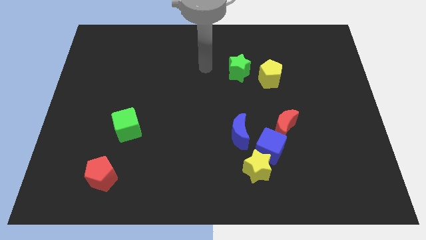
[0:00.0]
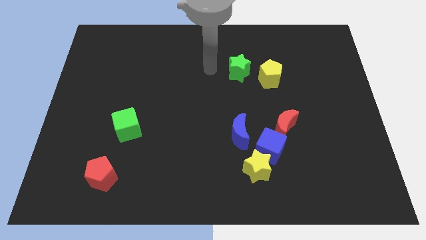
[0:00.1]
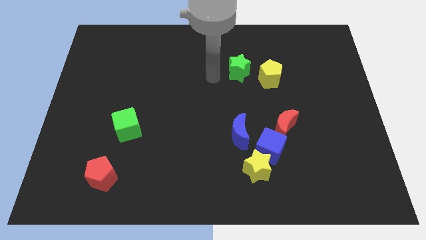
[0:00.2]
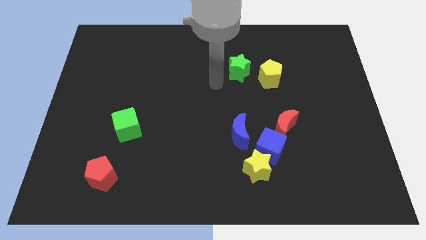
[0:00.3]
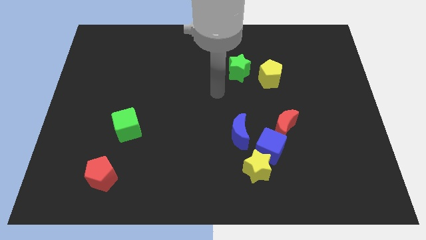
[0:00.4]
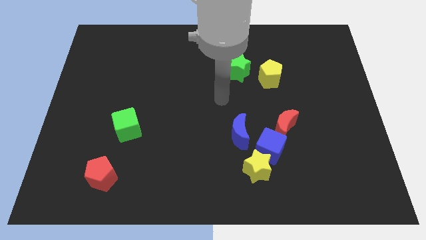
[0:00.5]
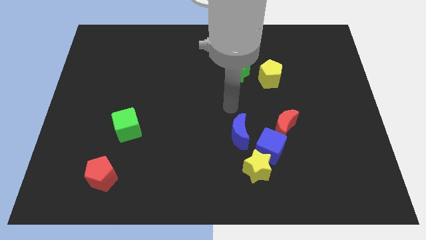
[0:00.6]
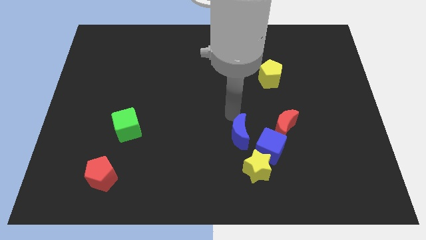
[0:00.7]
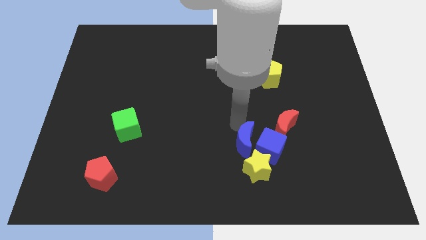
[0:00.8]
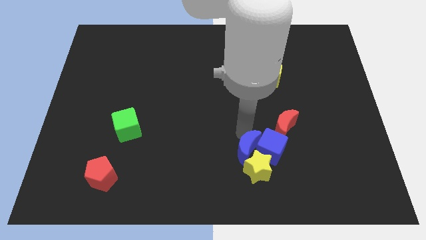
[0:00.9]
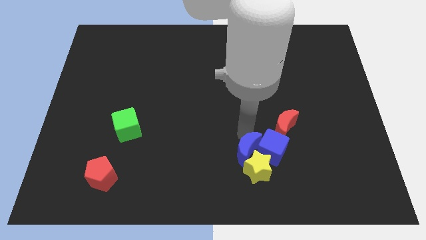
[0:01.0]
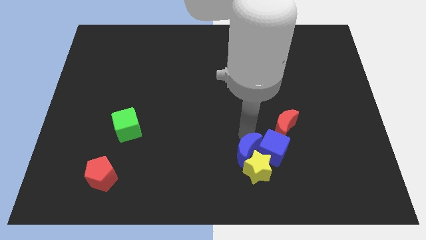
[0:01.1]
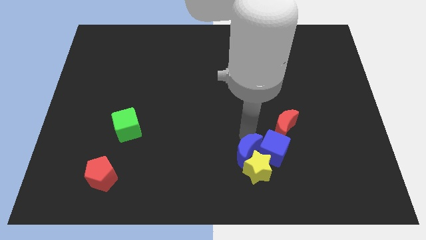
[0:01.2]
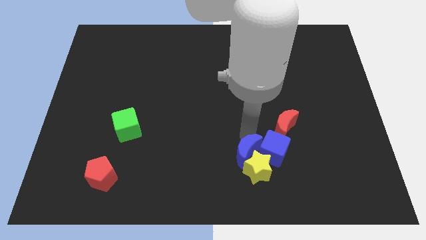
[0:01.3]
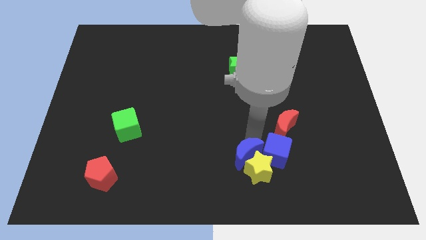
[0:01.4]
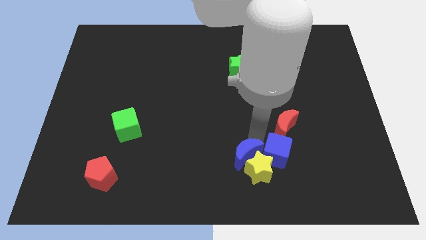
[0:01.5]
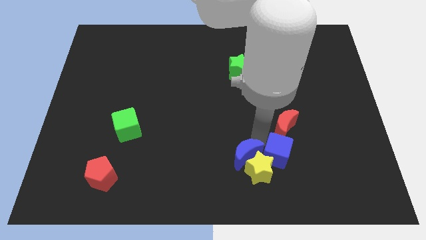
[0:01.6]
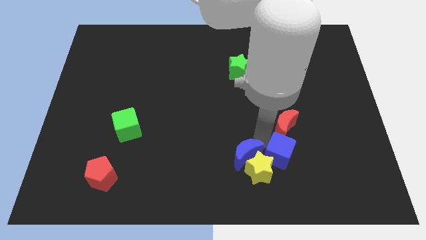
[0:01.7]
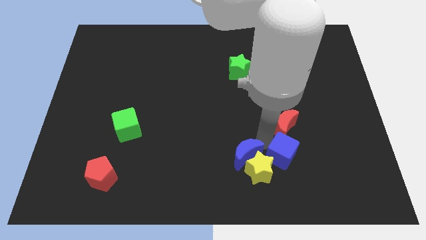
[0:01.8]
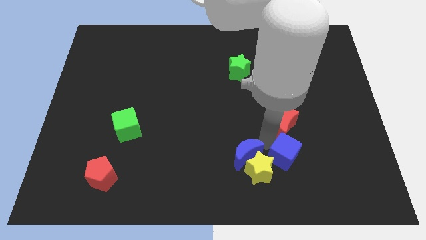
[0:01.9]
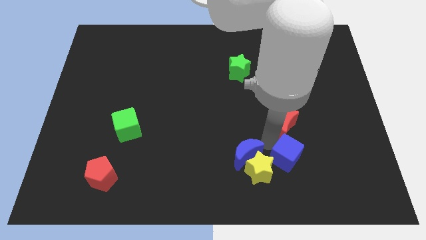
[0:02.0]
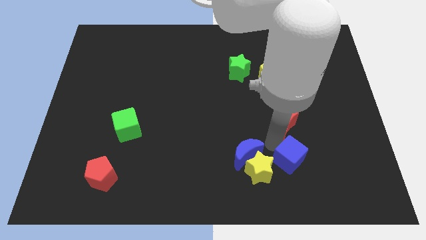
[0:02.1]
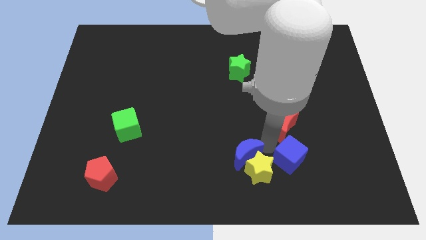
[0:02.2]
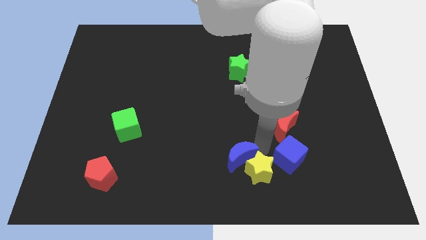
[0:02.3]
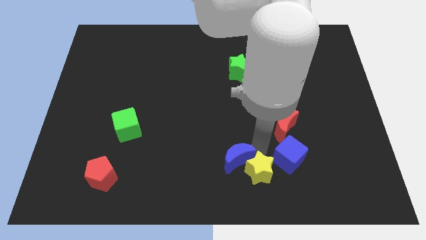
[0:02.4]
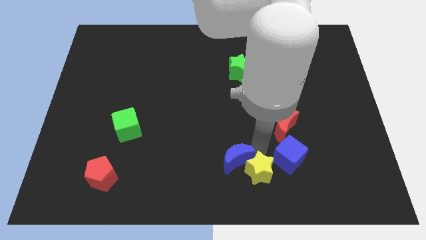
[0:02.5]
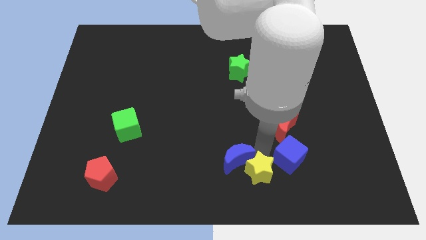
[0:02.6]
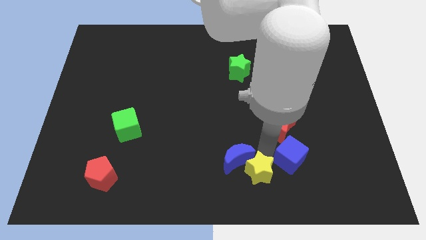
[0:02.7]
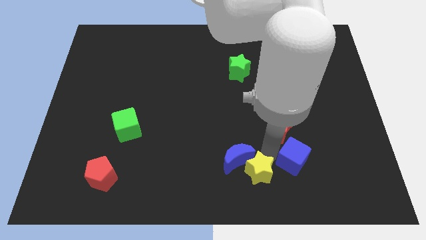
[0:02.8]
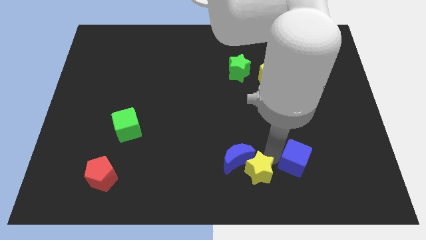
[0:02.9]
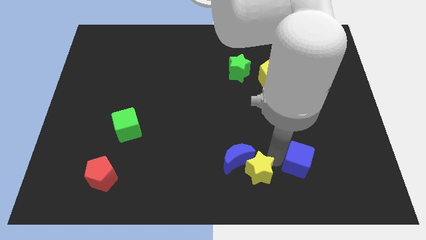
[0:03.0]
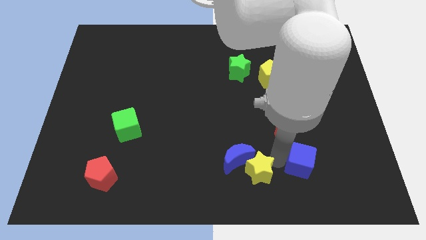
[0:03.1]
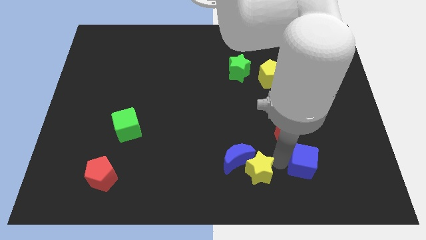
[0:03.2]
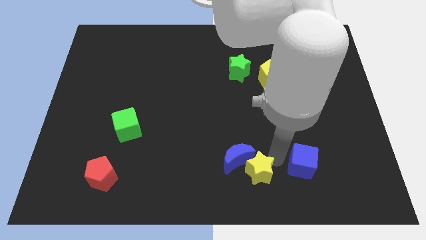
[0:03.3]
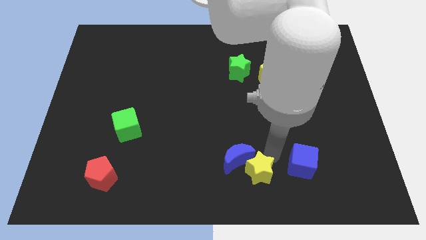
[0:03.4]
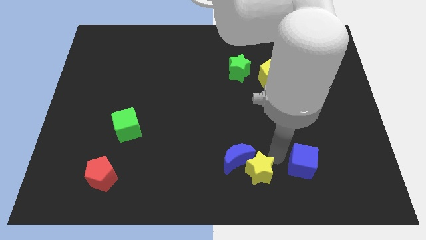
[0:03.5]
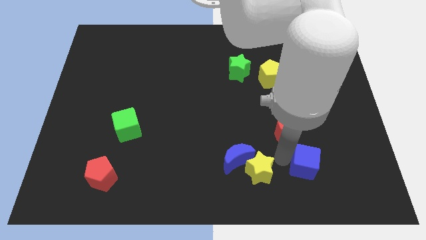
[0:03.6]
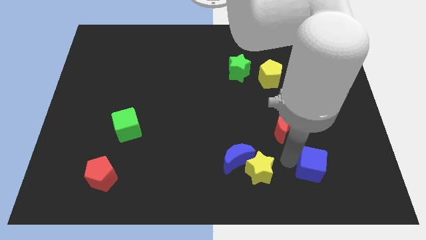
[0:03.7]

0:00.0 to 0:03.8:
pull the blue cube apart from the group of blocks

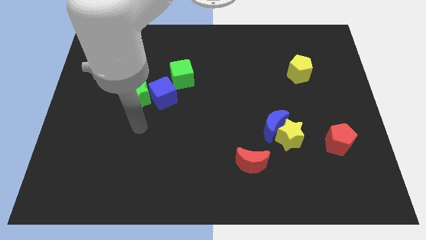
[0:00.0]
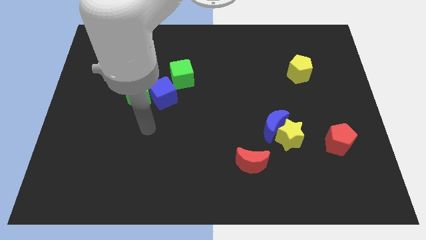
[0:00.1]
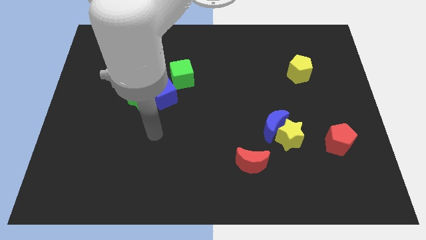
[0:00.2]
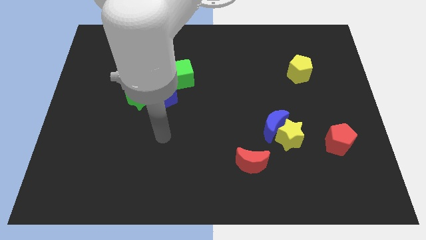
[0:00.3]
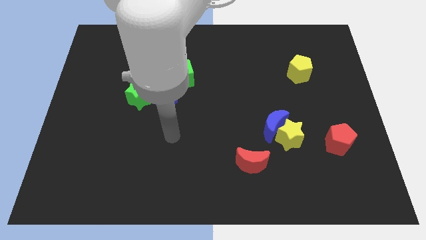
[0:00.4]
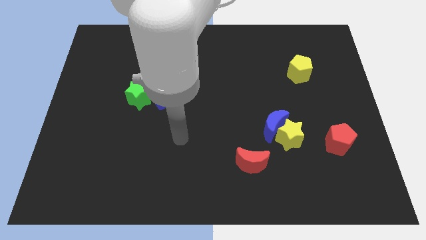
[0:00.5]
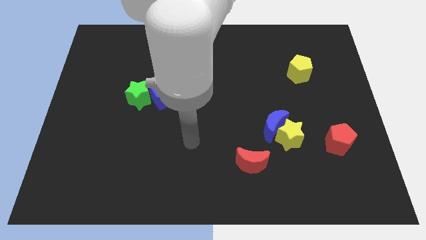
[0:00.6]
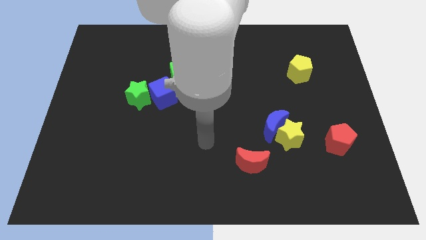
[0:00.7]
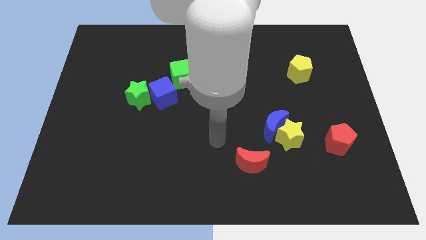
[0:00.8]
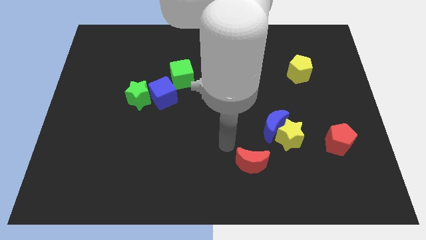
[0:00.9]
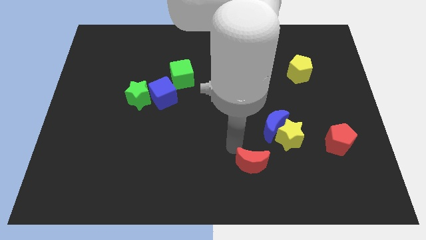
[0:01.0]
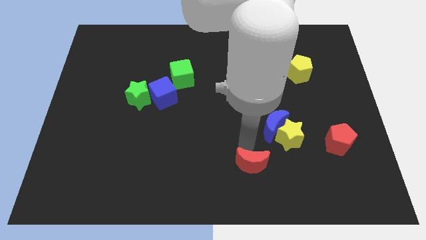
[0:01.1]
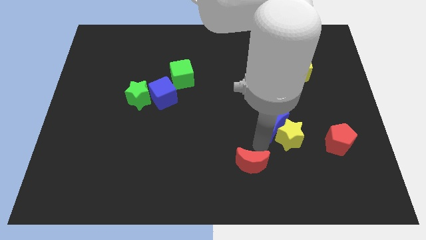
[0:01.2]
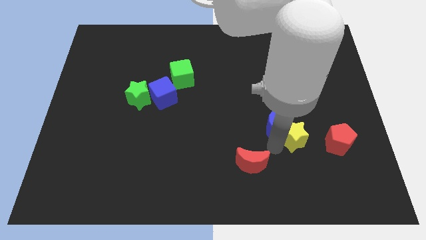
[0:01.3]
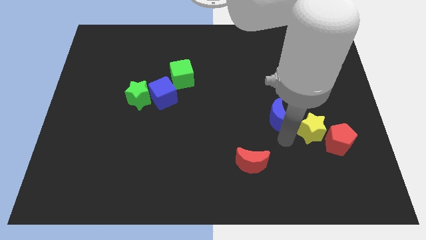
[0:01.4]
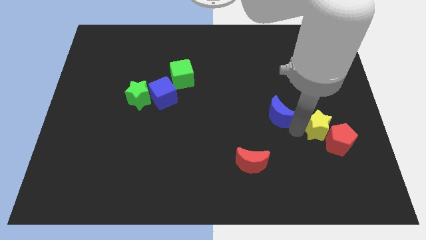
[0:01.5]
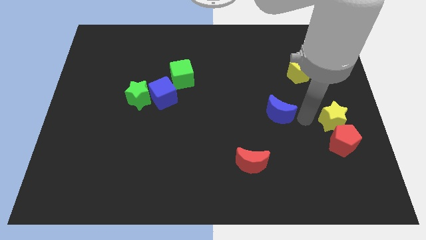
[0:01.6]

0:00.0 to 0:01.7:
separate the blue moon from the yellow star

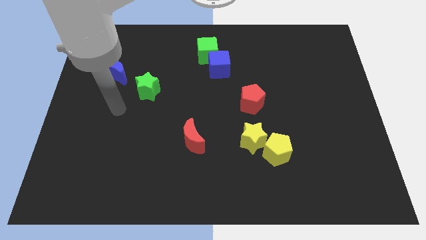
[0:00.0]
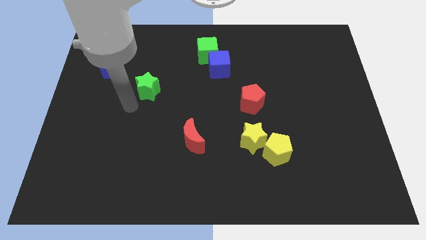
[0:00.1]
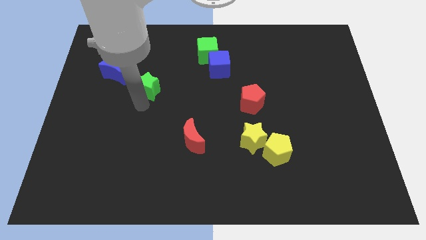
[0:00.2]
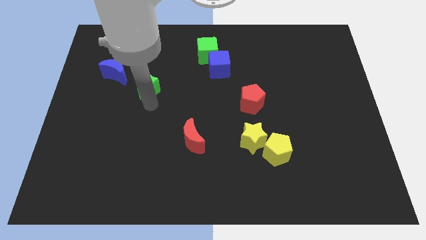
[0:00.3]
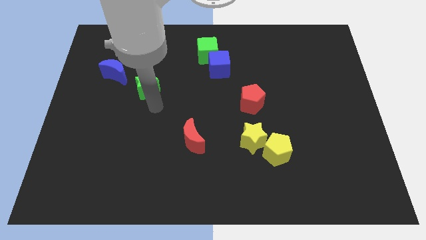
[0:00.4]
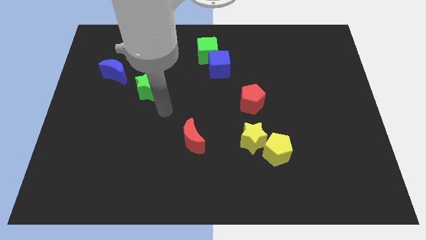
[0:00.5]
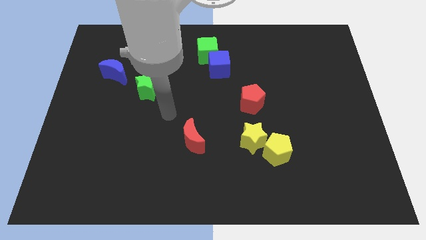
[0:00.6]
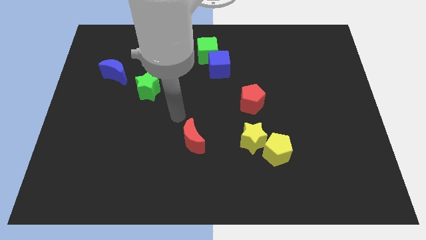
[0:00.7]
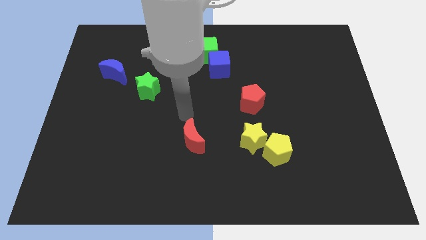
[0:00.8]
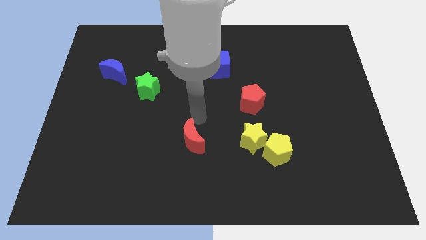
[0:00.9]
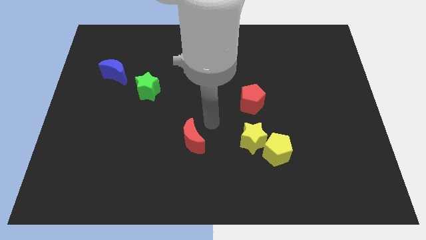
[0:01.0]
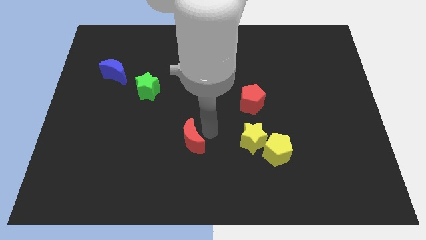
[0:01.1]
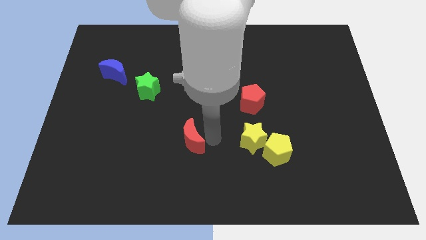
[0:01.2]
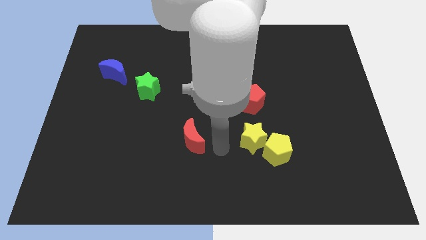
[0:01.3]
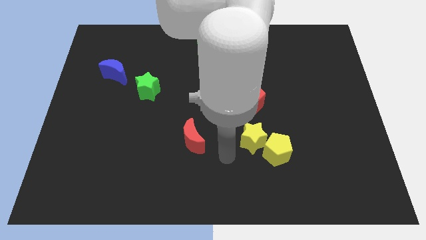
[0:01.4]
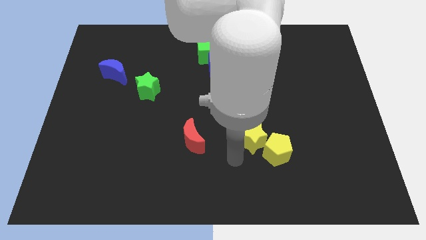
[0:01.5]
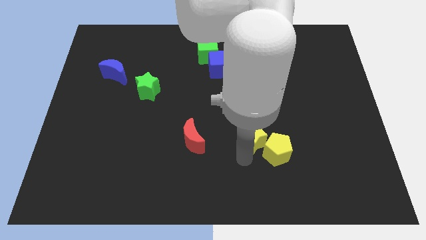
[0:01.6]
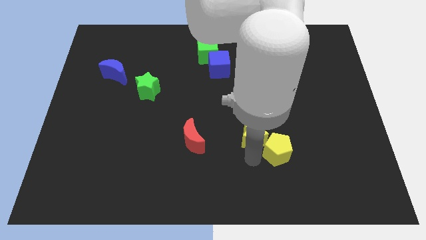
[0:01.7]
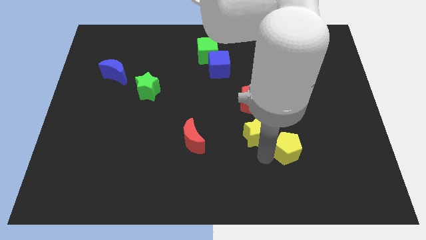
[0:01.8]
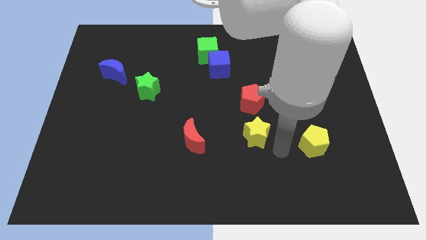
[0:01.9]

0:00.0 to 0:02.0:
pull the yellow star apart from the yellow pentagon

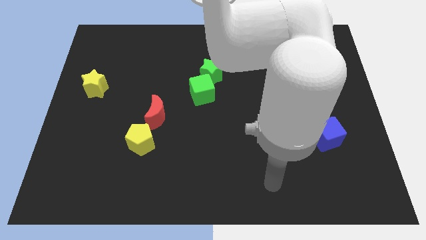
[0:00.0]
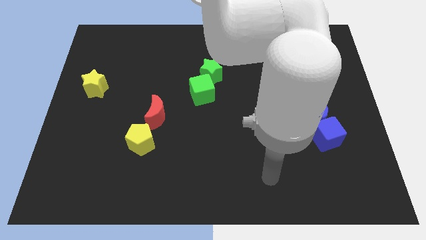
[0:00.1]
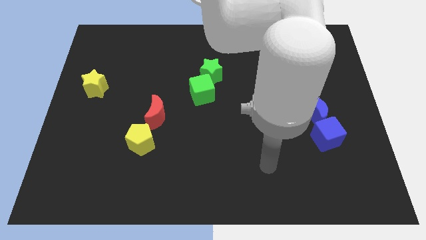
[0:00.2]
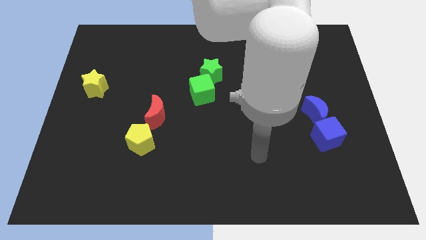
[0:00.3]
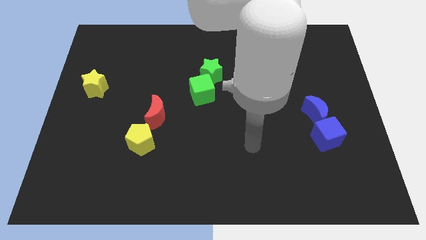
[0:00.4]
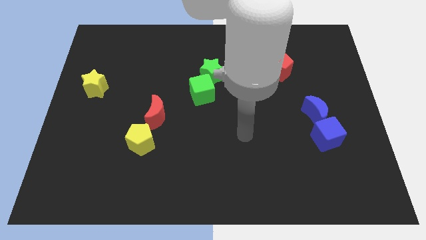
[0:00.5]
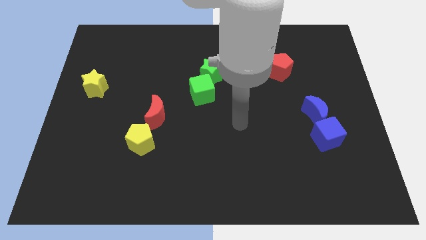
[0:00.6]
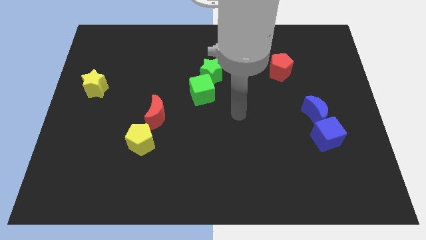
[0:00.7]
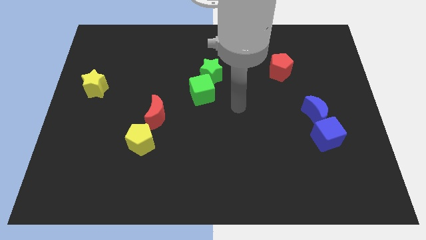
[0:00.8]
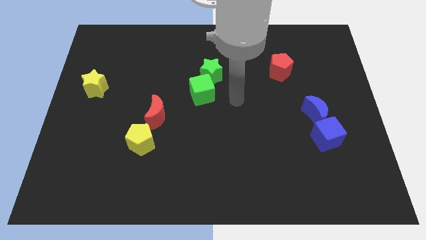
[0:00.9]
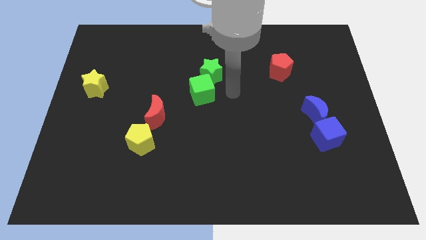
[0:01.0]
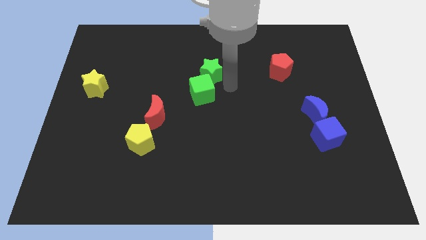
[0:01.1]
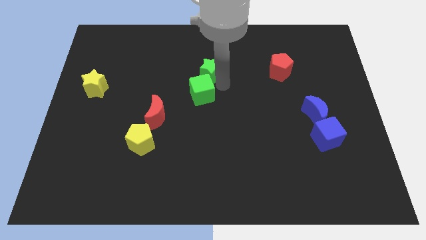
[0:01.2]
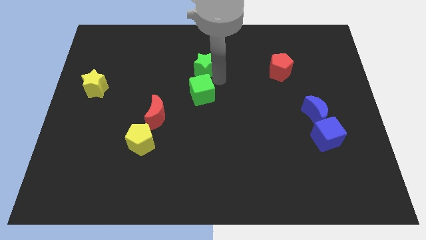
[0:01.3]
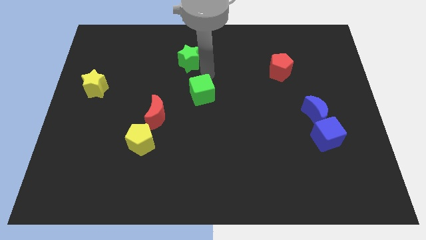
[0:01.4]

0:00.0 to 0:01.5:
separate the green cube from the green star

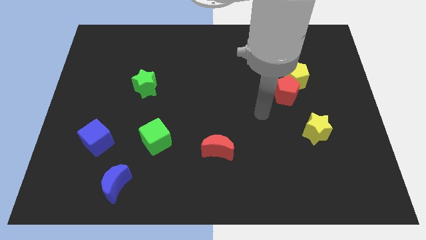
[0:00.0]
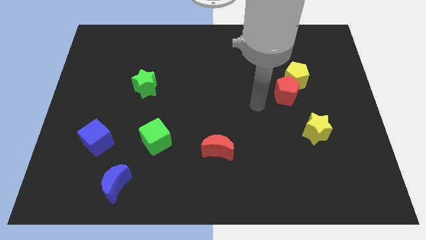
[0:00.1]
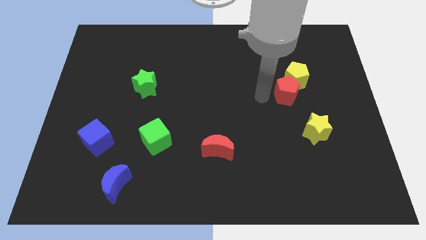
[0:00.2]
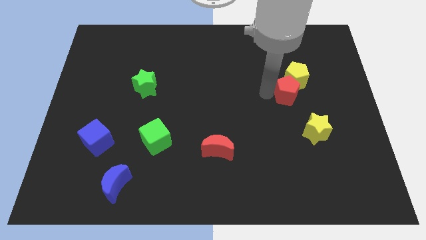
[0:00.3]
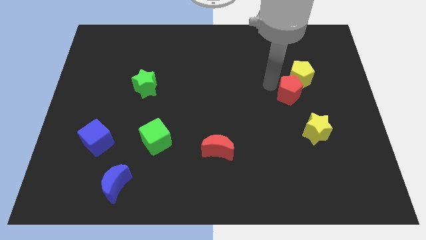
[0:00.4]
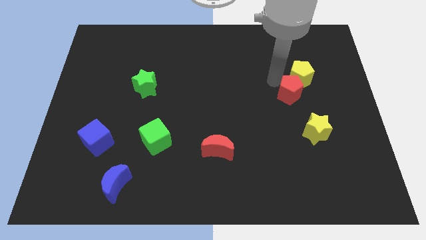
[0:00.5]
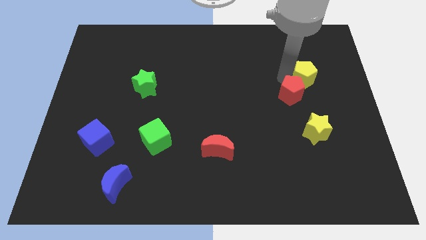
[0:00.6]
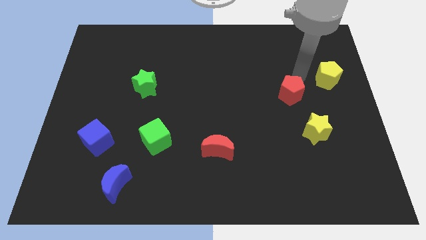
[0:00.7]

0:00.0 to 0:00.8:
move the red pentagon away from the yellow pentagon
